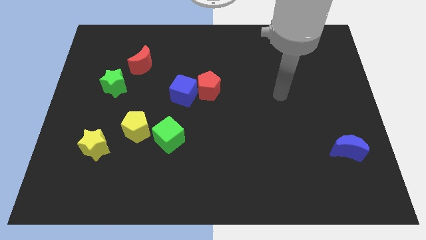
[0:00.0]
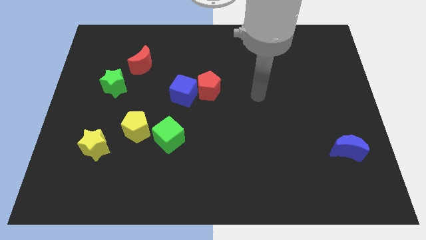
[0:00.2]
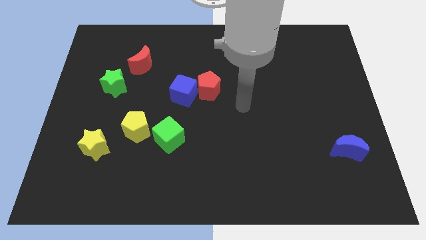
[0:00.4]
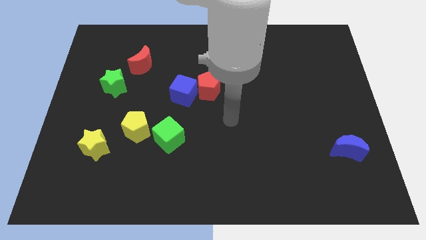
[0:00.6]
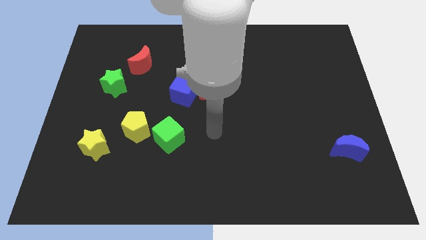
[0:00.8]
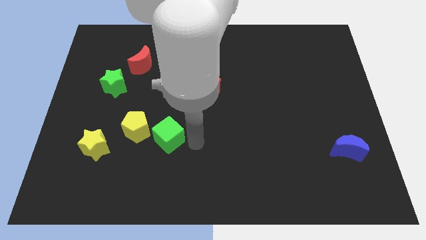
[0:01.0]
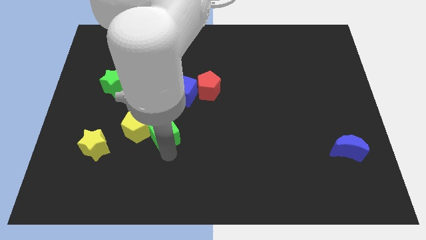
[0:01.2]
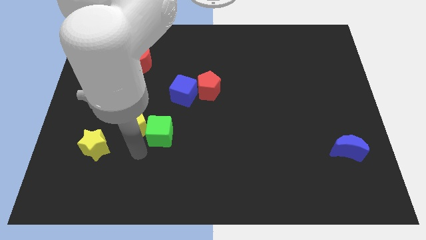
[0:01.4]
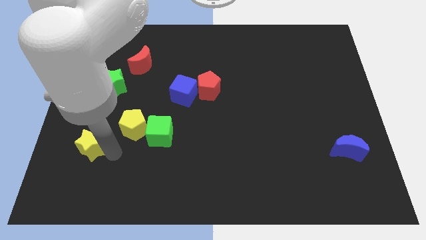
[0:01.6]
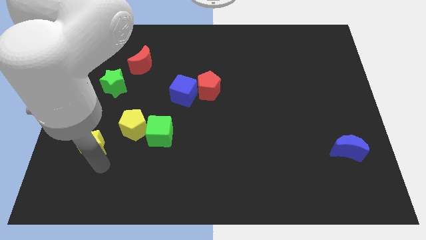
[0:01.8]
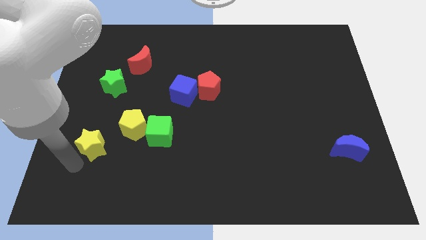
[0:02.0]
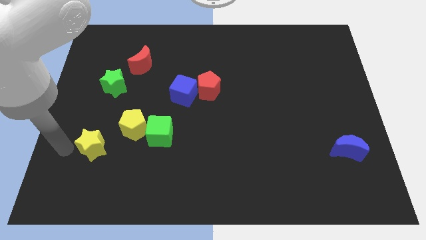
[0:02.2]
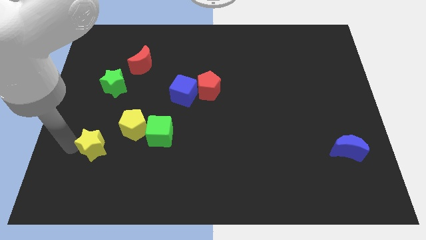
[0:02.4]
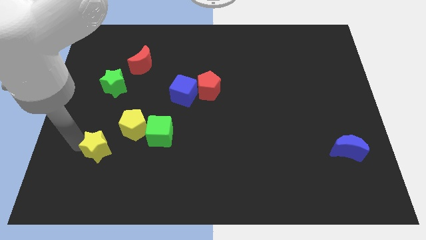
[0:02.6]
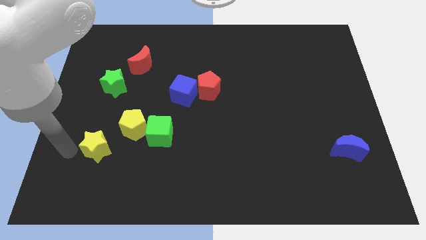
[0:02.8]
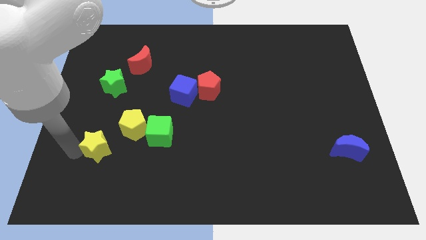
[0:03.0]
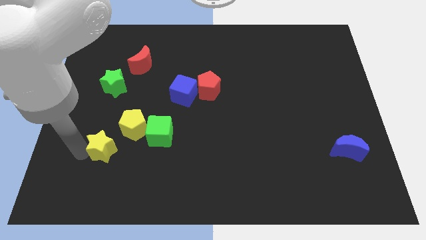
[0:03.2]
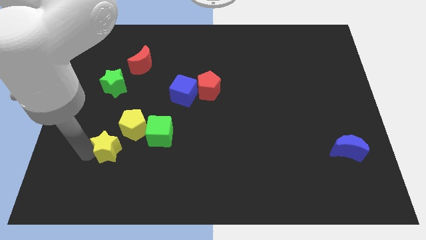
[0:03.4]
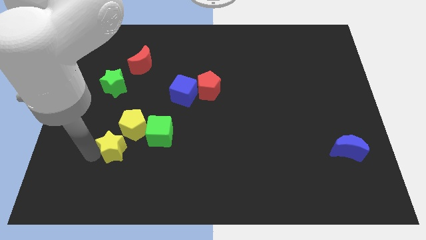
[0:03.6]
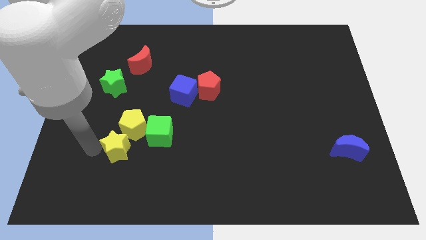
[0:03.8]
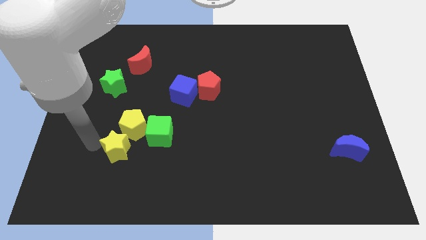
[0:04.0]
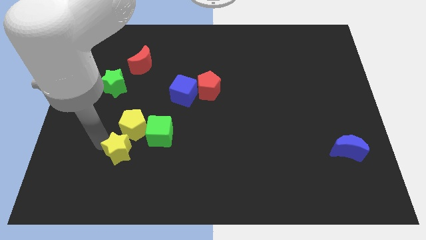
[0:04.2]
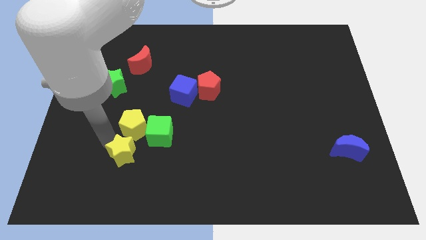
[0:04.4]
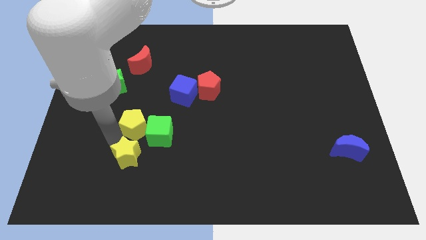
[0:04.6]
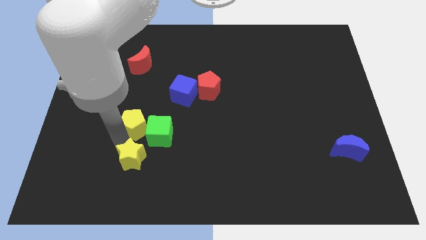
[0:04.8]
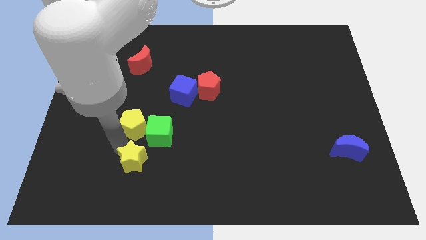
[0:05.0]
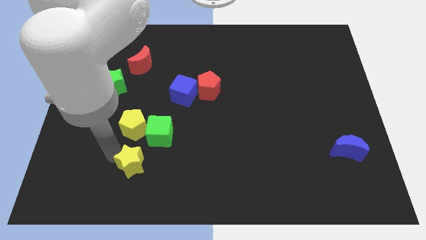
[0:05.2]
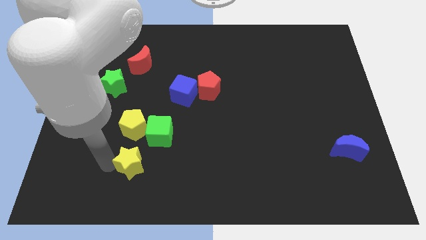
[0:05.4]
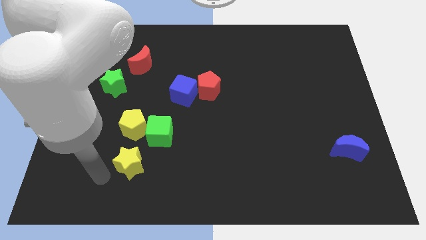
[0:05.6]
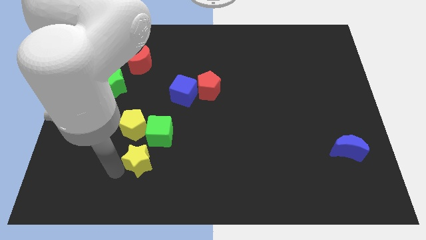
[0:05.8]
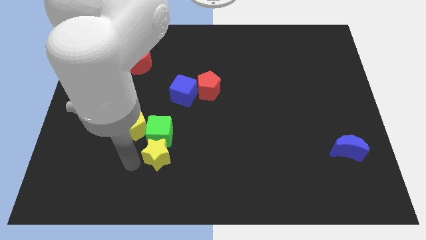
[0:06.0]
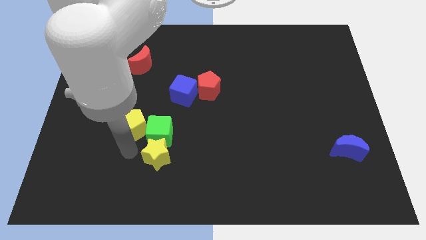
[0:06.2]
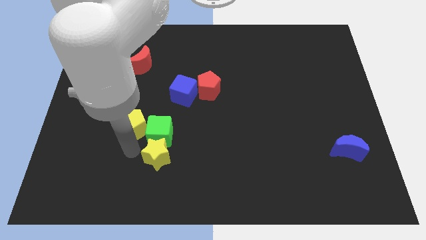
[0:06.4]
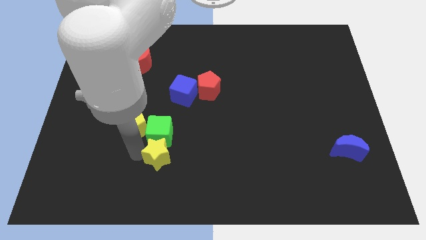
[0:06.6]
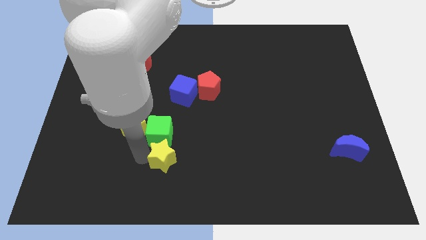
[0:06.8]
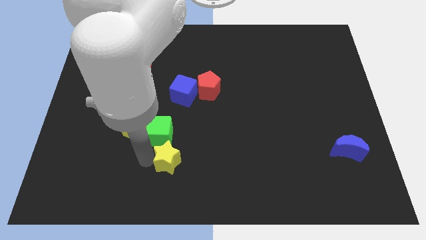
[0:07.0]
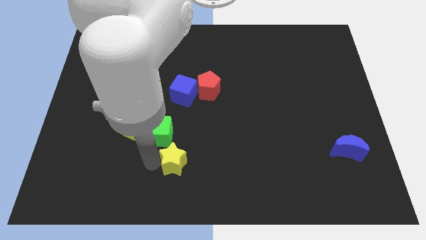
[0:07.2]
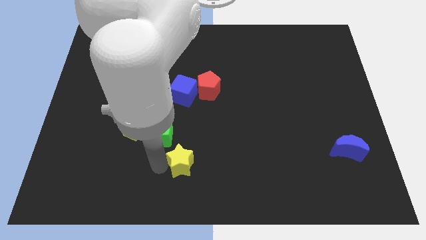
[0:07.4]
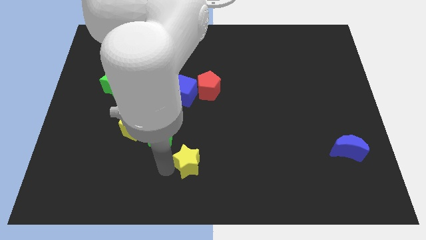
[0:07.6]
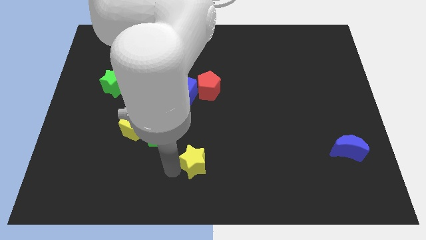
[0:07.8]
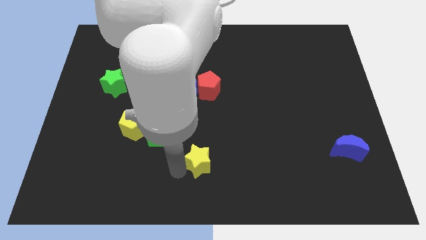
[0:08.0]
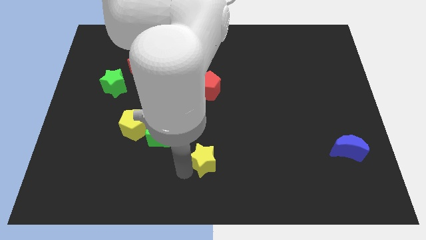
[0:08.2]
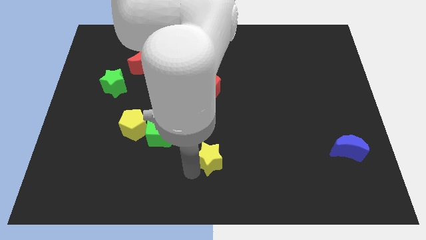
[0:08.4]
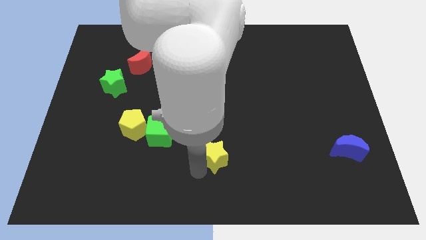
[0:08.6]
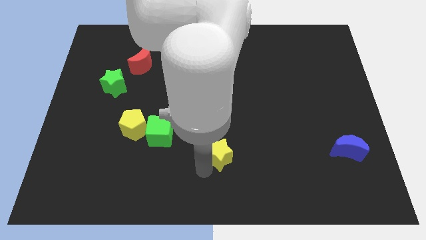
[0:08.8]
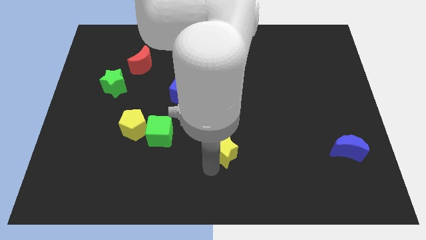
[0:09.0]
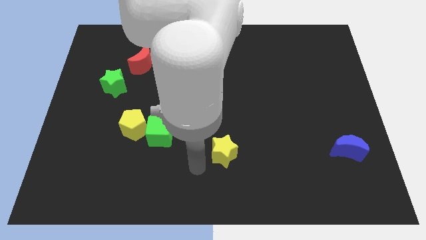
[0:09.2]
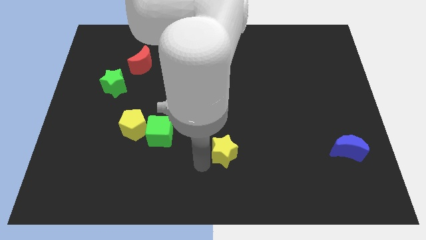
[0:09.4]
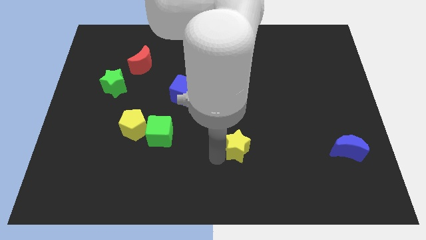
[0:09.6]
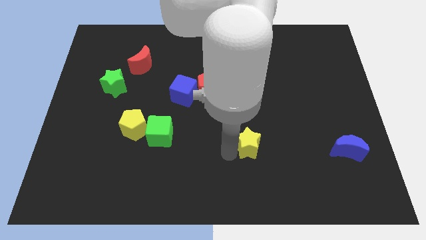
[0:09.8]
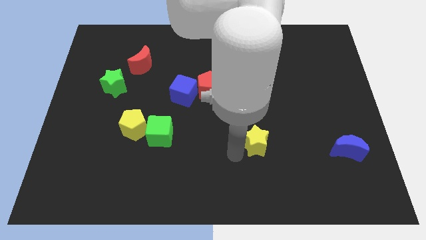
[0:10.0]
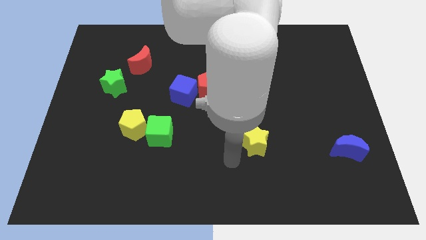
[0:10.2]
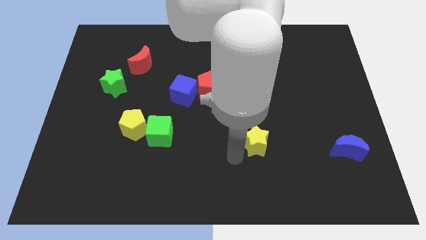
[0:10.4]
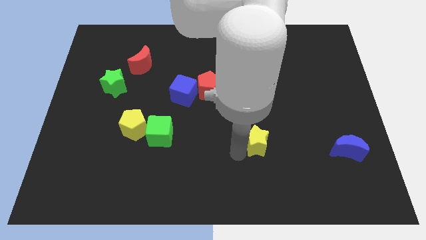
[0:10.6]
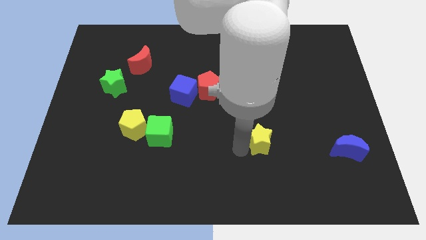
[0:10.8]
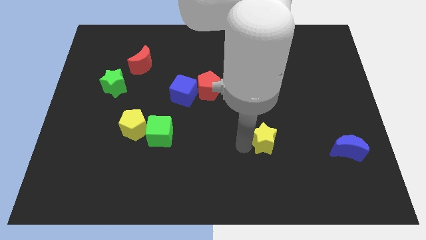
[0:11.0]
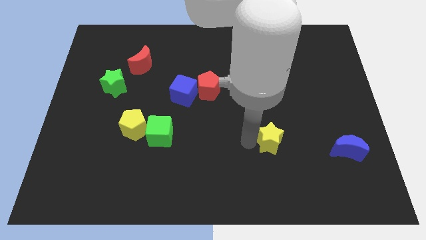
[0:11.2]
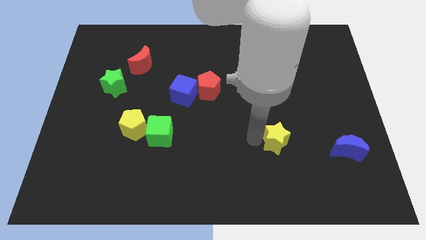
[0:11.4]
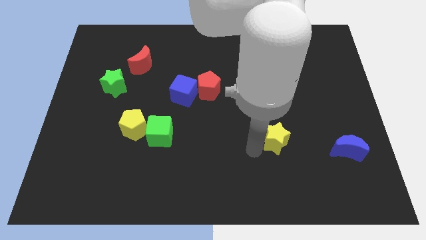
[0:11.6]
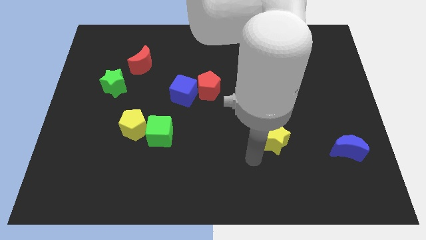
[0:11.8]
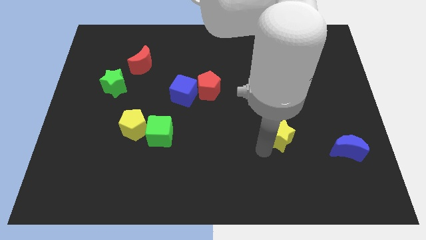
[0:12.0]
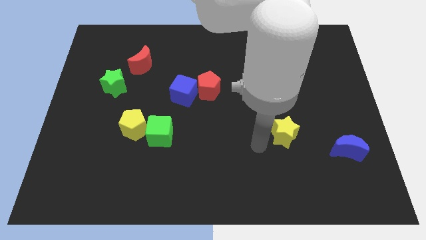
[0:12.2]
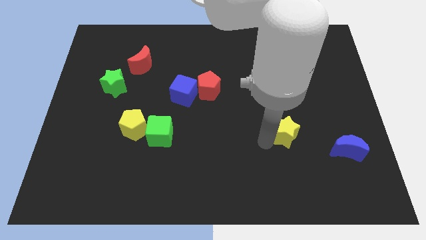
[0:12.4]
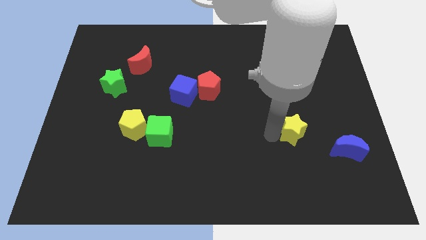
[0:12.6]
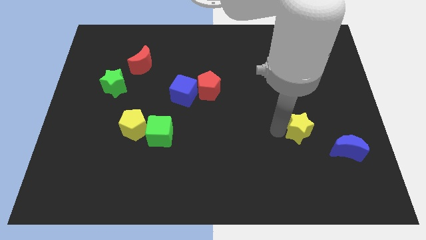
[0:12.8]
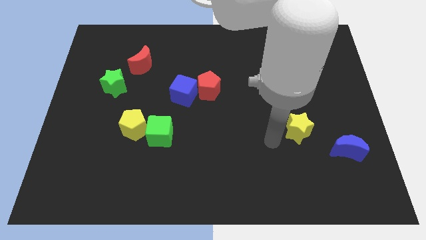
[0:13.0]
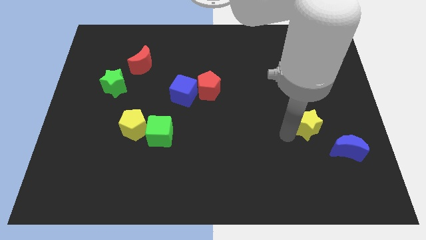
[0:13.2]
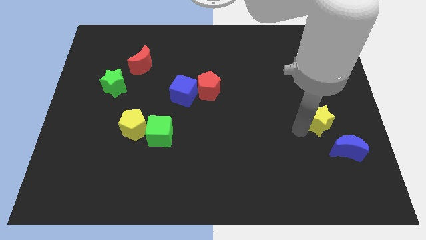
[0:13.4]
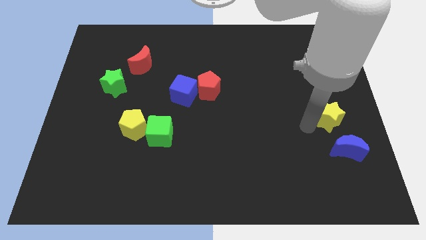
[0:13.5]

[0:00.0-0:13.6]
push the yellow star to the right side
